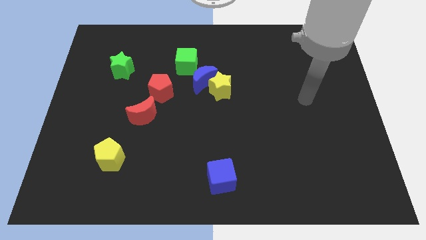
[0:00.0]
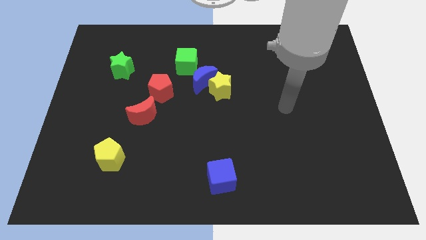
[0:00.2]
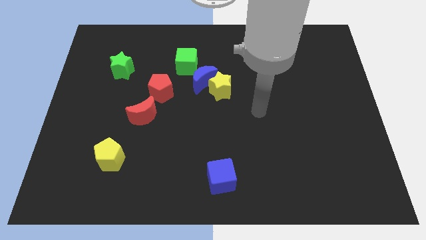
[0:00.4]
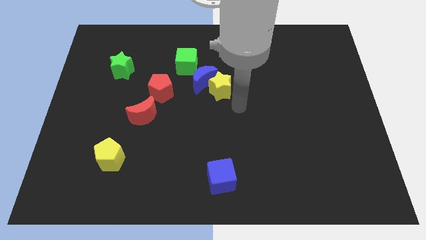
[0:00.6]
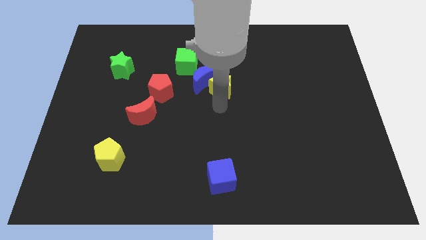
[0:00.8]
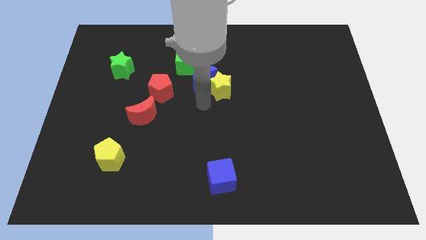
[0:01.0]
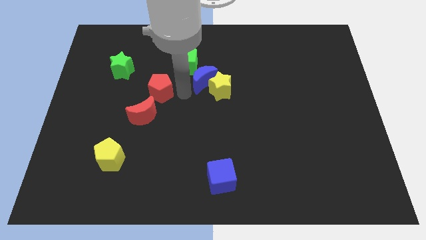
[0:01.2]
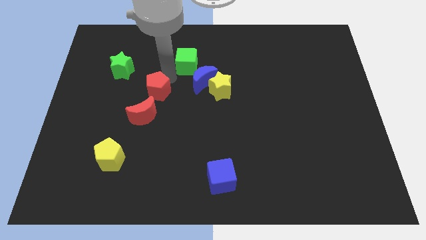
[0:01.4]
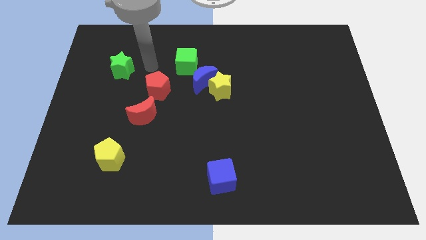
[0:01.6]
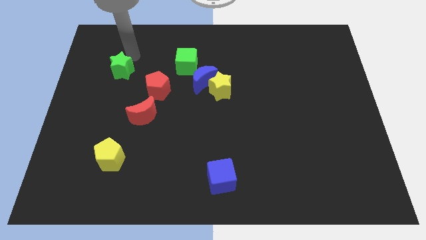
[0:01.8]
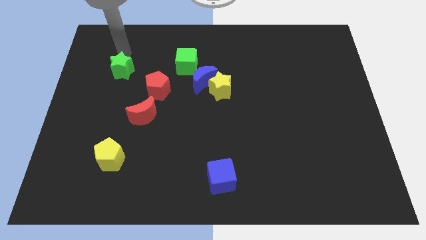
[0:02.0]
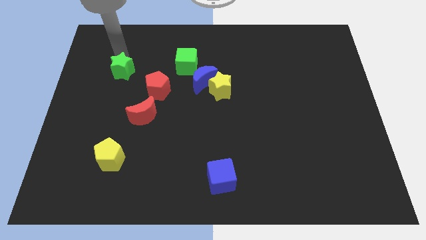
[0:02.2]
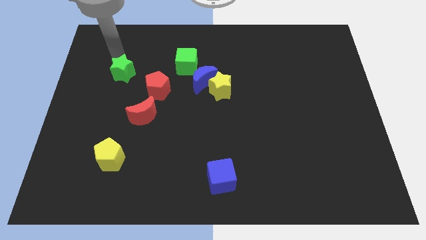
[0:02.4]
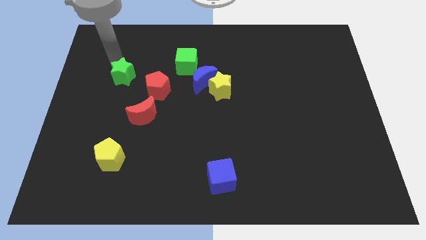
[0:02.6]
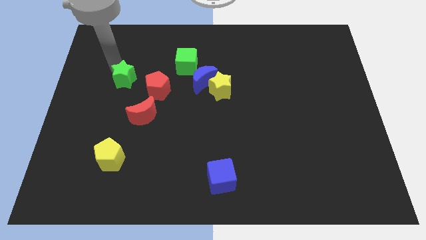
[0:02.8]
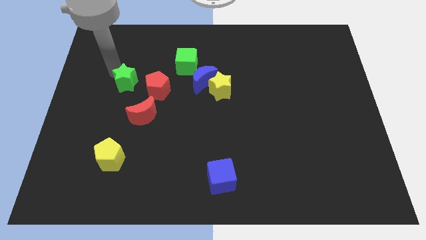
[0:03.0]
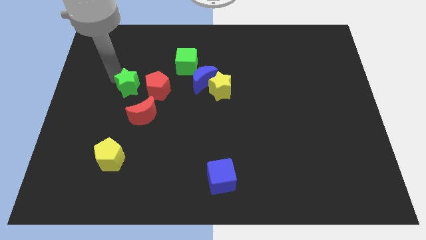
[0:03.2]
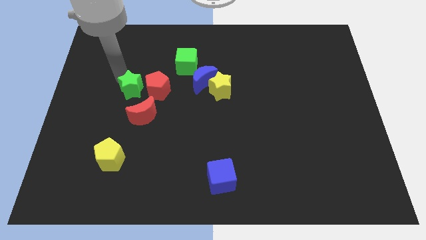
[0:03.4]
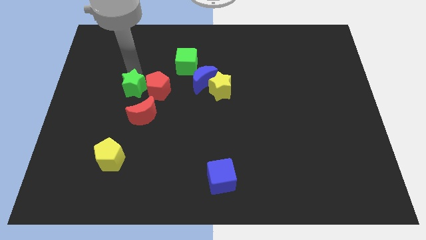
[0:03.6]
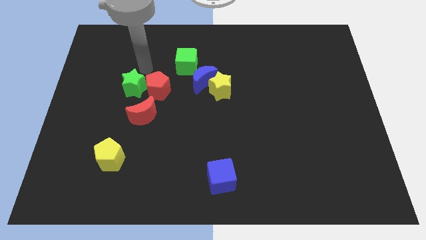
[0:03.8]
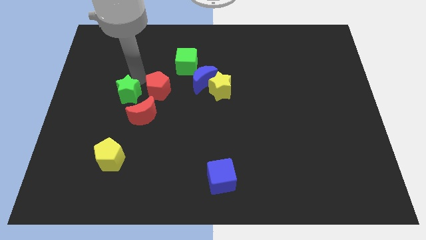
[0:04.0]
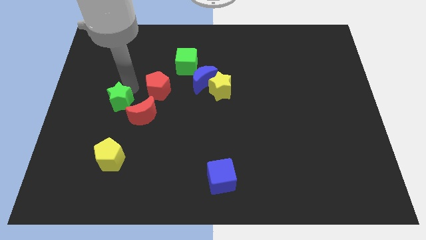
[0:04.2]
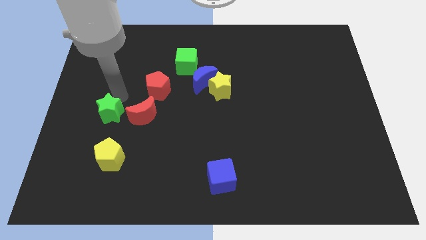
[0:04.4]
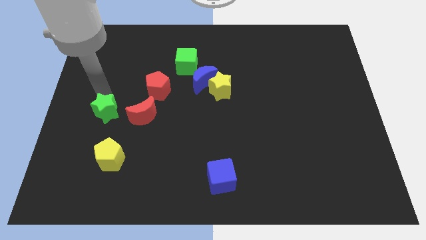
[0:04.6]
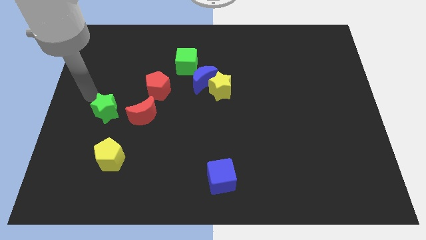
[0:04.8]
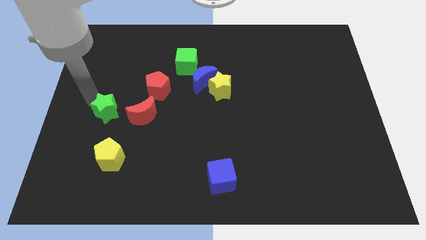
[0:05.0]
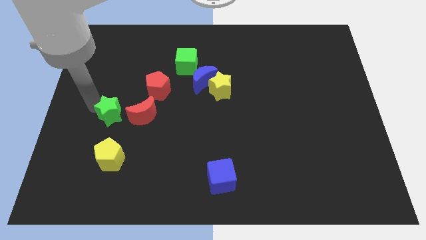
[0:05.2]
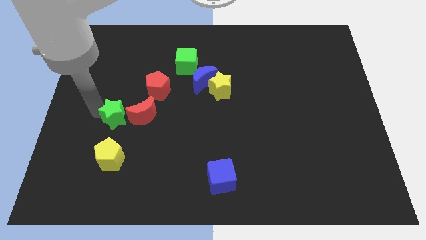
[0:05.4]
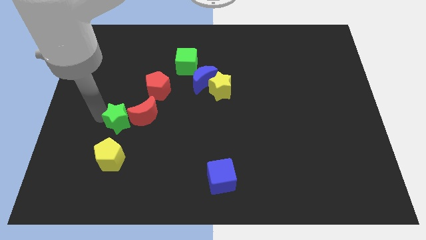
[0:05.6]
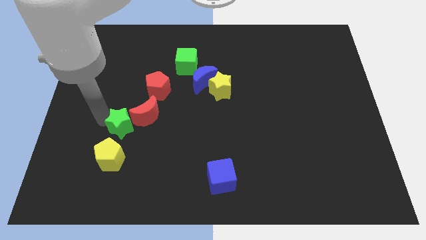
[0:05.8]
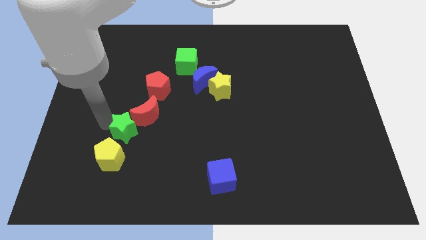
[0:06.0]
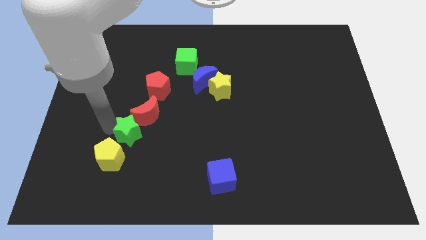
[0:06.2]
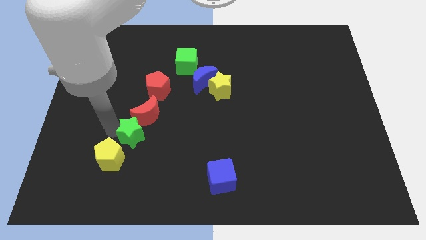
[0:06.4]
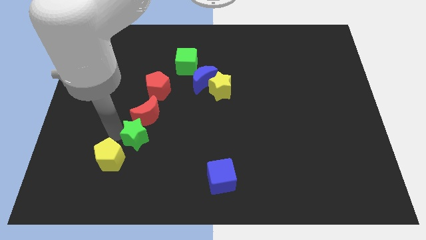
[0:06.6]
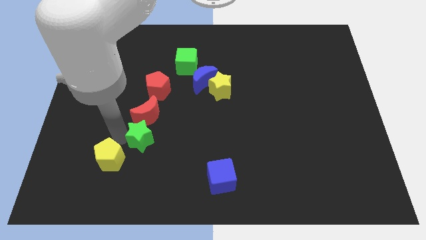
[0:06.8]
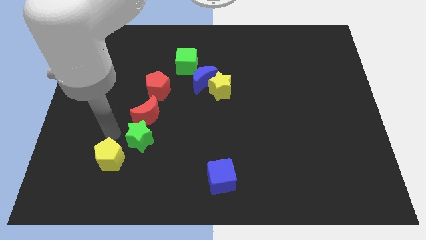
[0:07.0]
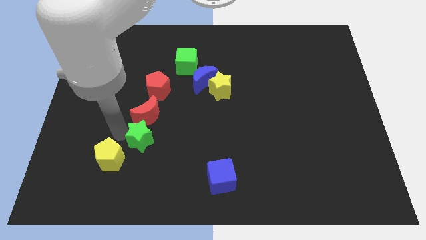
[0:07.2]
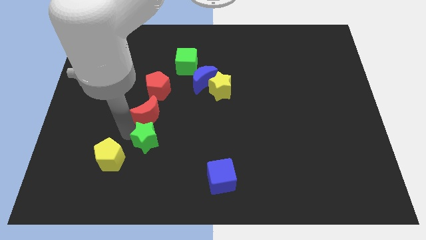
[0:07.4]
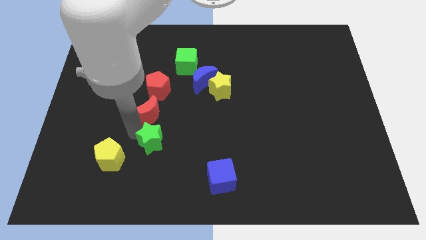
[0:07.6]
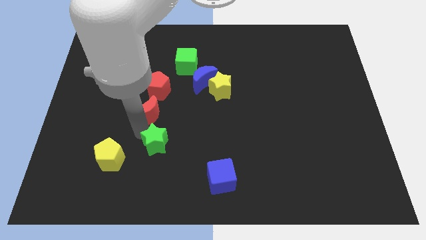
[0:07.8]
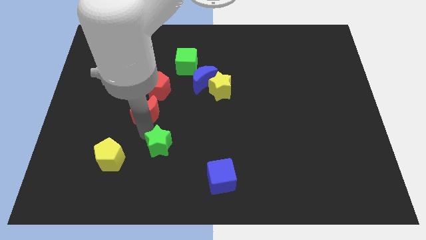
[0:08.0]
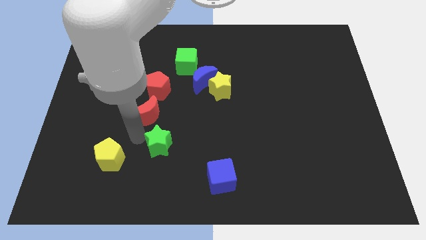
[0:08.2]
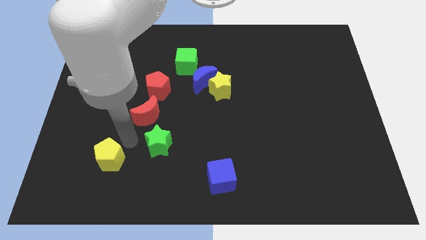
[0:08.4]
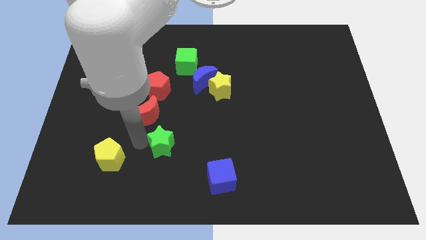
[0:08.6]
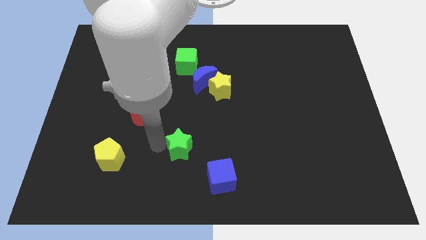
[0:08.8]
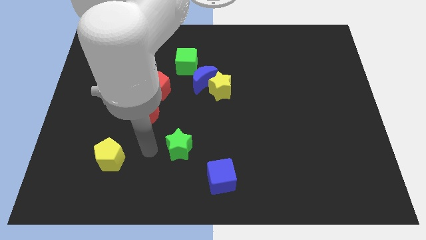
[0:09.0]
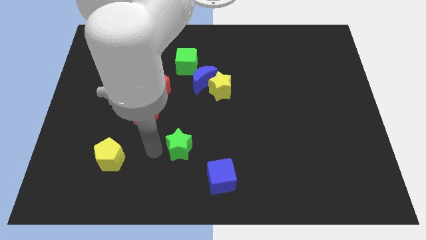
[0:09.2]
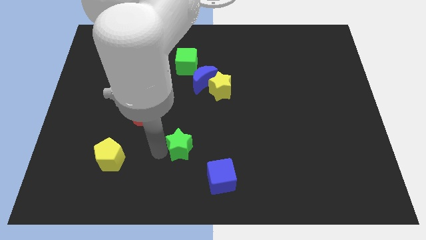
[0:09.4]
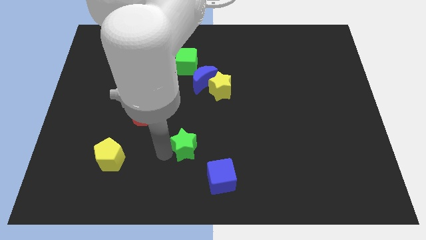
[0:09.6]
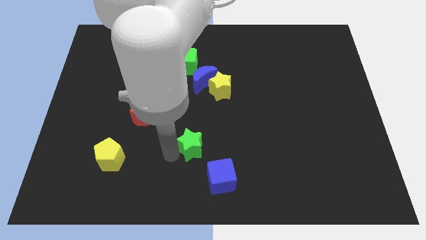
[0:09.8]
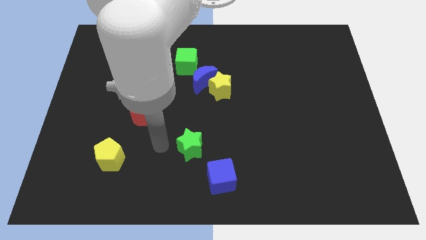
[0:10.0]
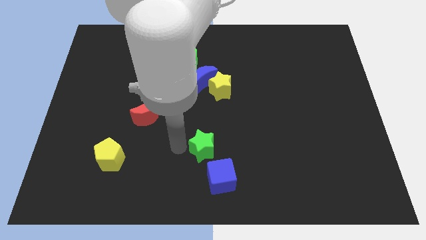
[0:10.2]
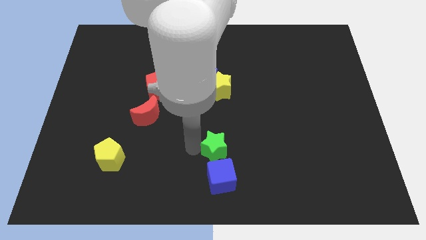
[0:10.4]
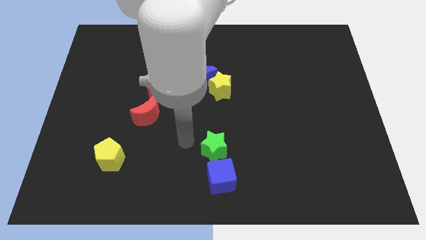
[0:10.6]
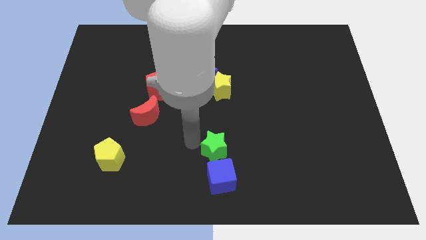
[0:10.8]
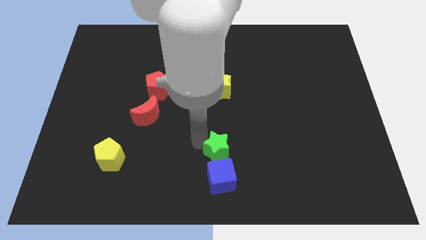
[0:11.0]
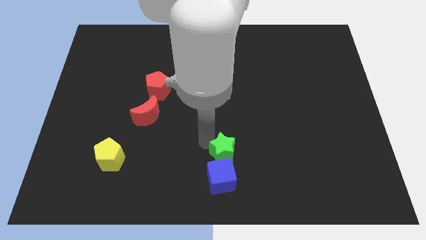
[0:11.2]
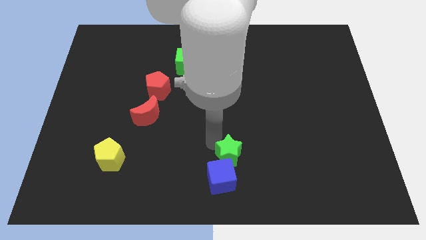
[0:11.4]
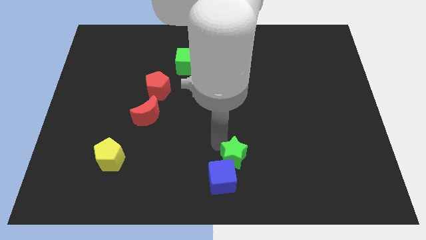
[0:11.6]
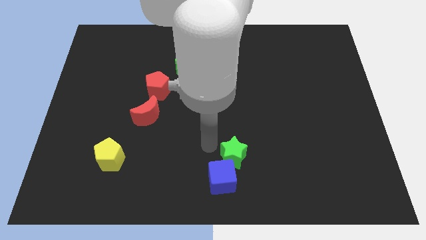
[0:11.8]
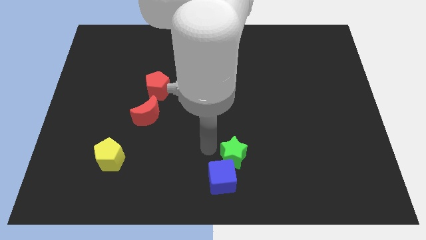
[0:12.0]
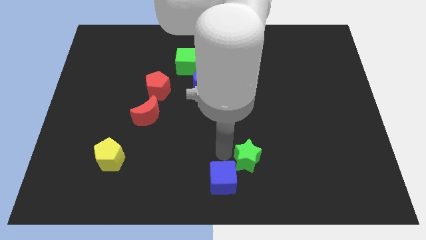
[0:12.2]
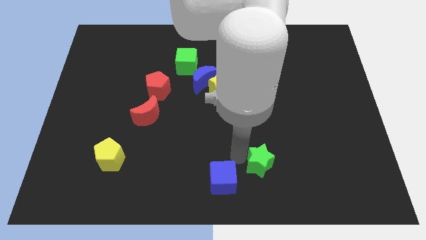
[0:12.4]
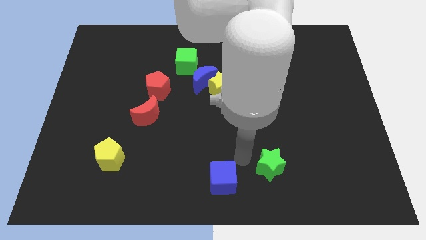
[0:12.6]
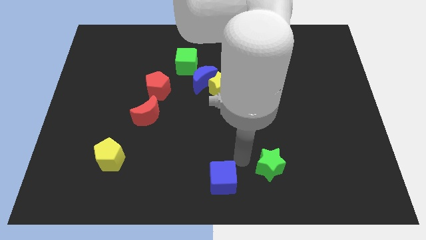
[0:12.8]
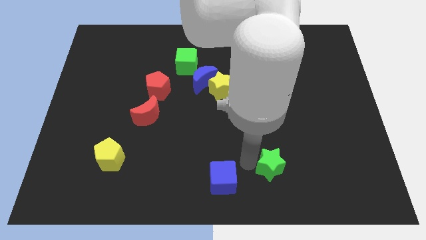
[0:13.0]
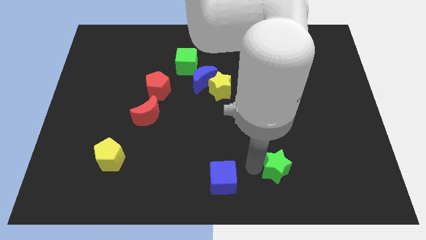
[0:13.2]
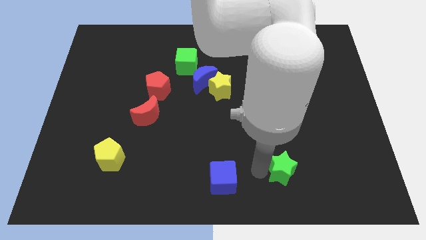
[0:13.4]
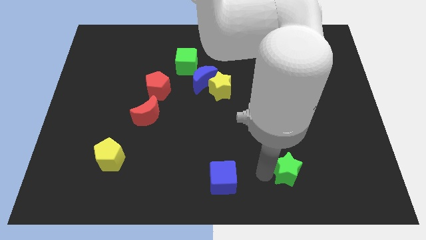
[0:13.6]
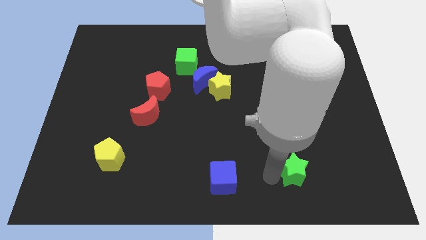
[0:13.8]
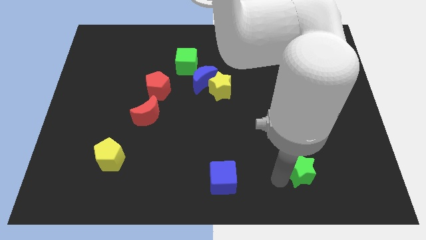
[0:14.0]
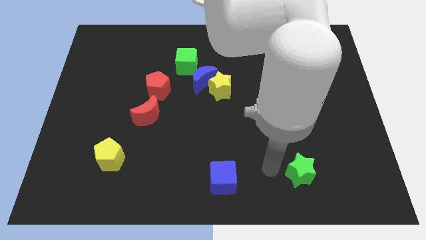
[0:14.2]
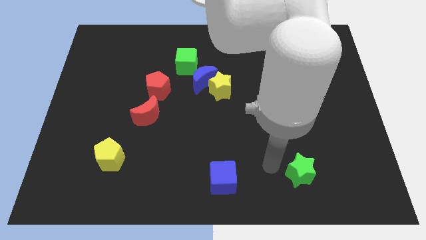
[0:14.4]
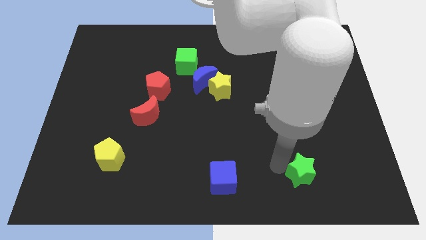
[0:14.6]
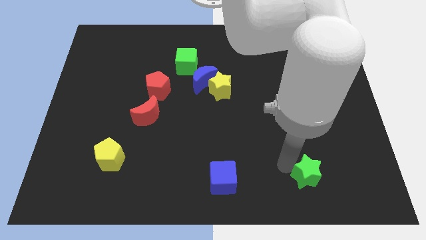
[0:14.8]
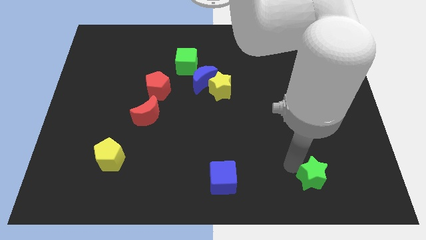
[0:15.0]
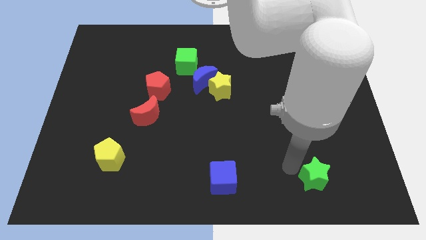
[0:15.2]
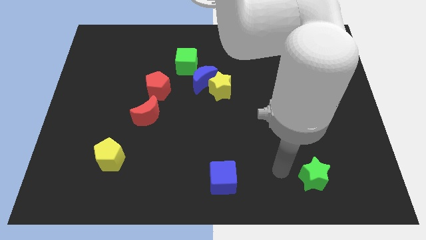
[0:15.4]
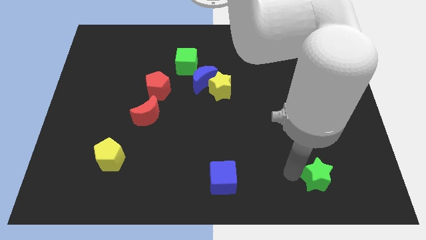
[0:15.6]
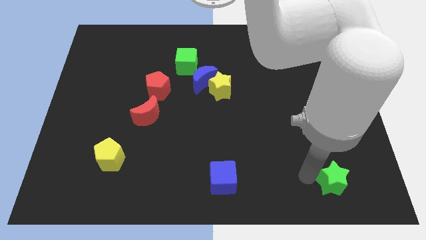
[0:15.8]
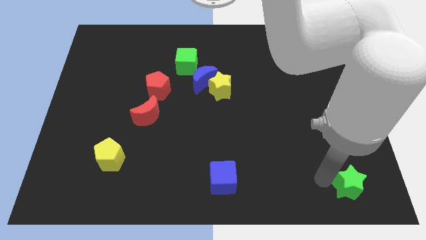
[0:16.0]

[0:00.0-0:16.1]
slide the green star to the lower right corner
